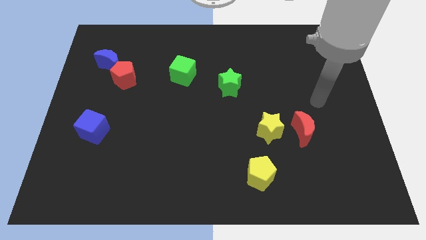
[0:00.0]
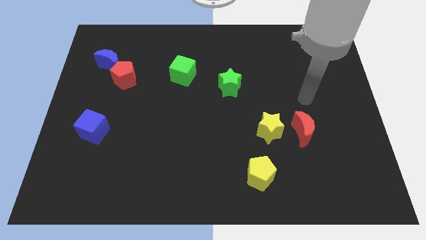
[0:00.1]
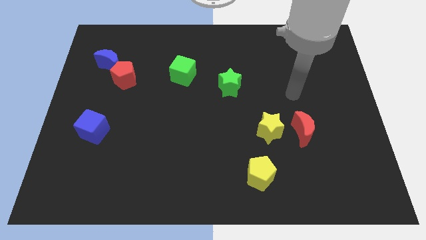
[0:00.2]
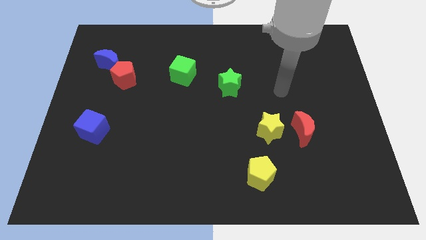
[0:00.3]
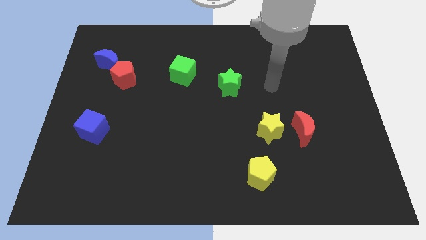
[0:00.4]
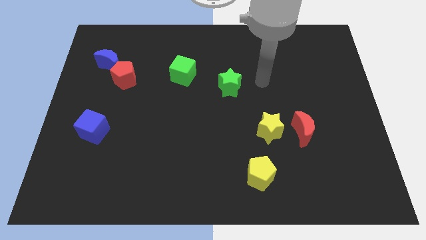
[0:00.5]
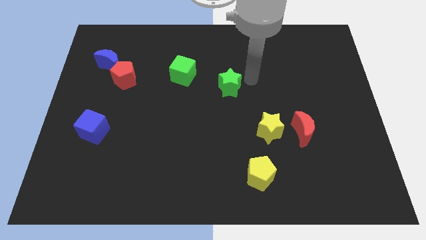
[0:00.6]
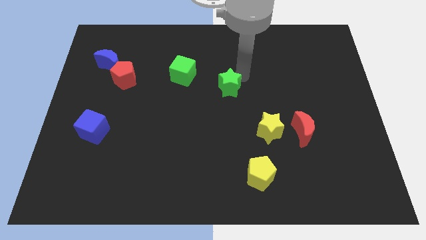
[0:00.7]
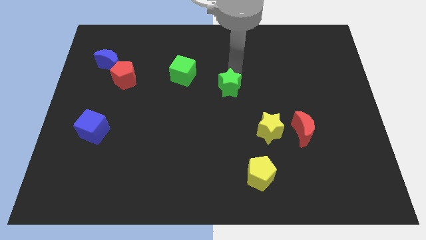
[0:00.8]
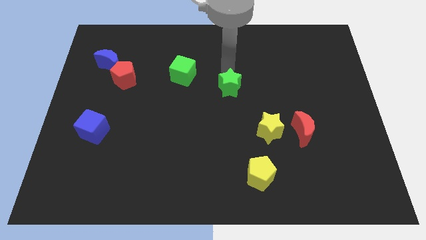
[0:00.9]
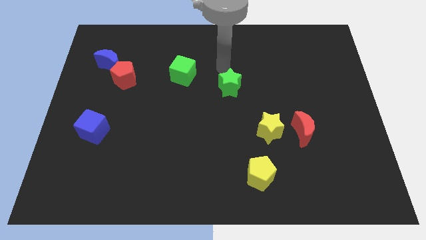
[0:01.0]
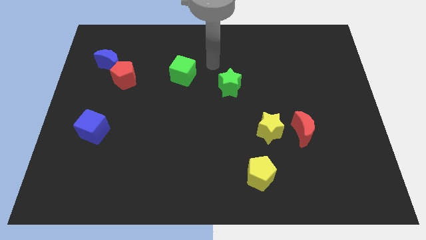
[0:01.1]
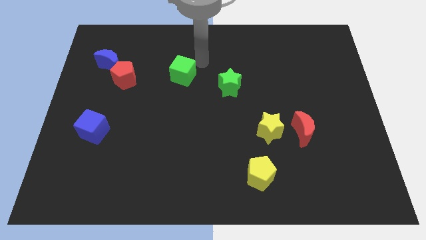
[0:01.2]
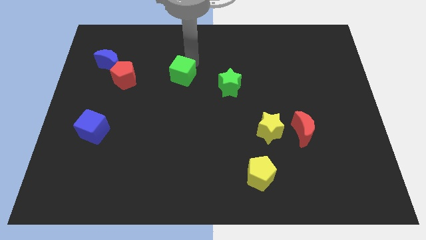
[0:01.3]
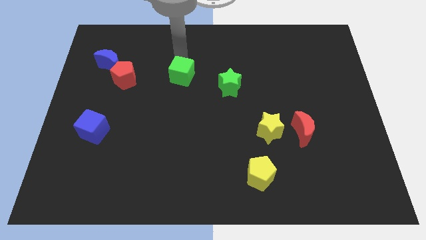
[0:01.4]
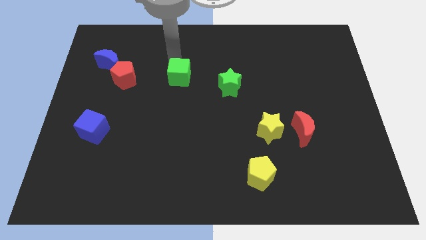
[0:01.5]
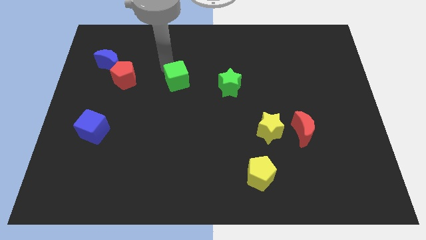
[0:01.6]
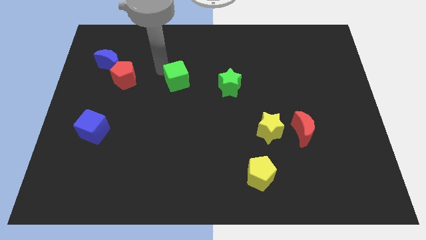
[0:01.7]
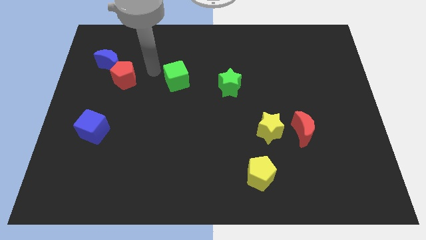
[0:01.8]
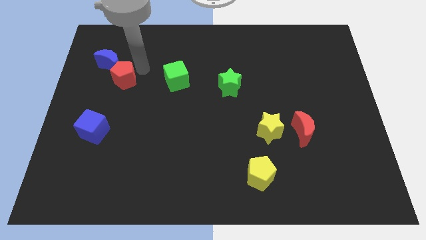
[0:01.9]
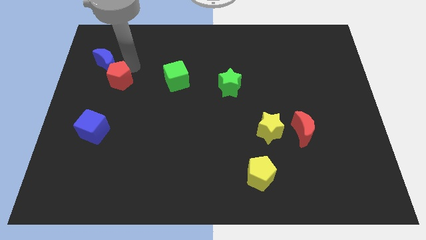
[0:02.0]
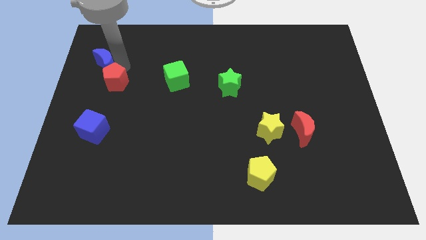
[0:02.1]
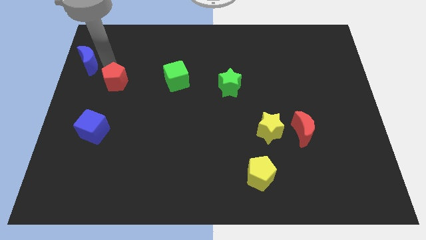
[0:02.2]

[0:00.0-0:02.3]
pull the red pentagon apart from the blue moon

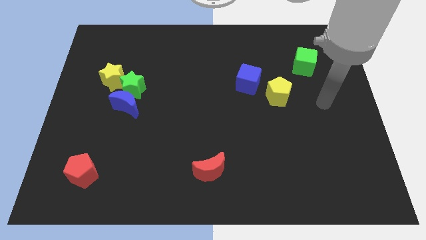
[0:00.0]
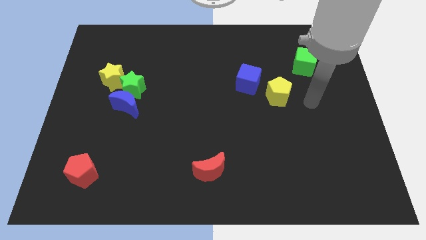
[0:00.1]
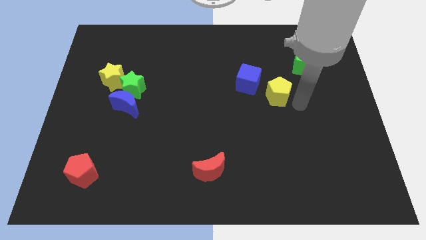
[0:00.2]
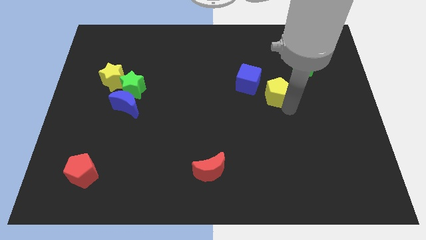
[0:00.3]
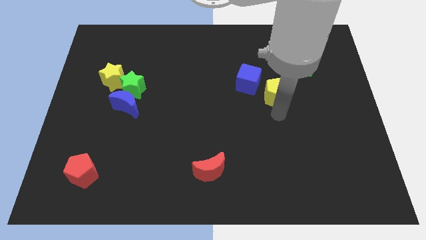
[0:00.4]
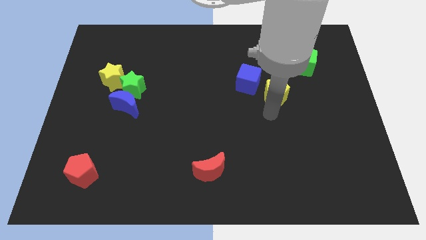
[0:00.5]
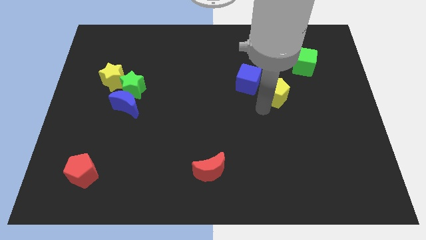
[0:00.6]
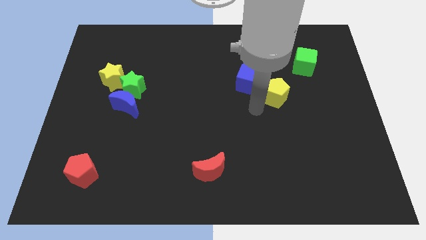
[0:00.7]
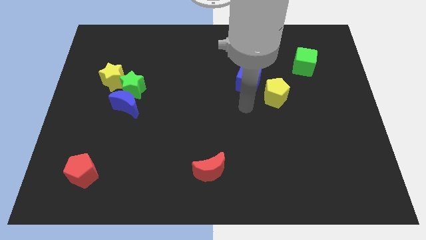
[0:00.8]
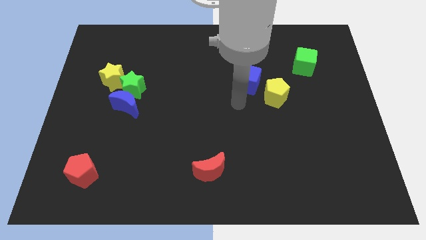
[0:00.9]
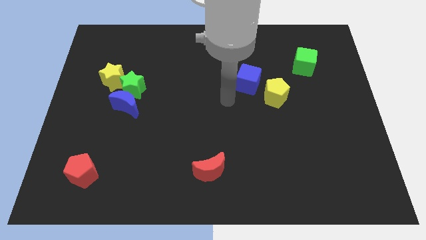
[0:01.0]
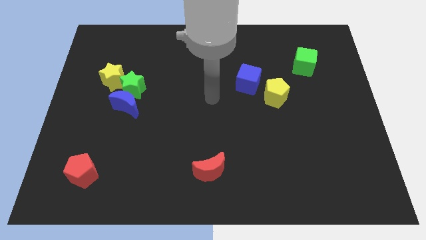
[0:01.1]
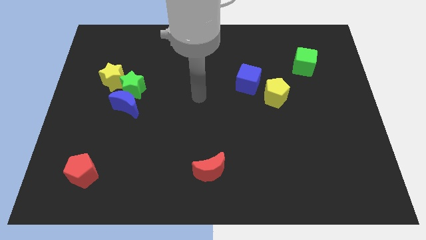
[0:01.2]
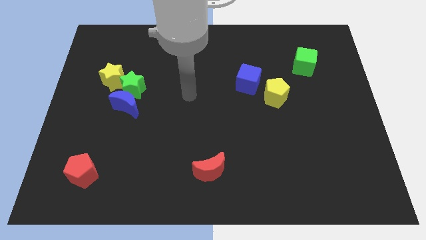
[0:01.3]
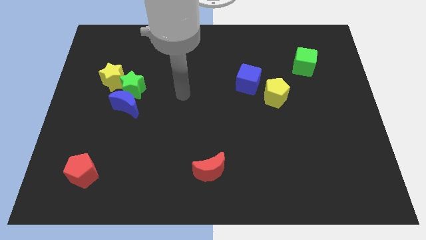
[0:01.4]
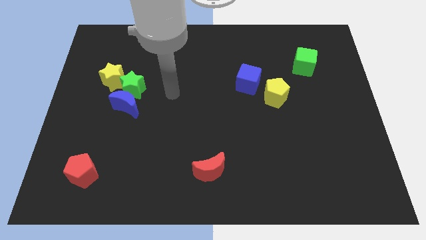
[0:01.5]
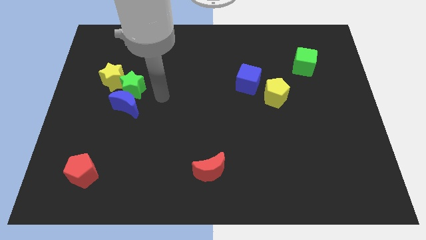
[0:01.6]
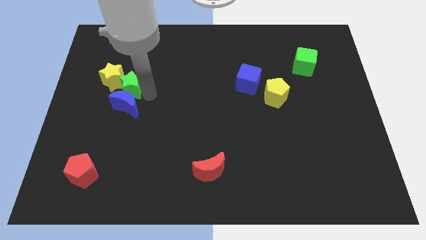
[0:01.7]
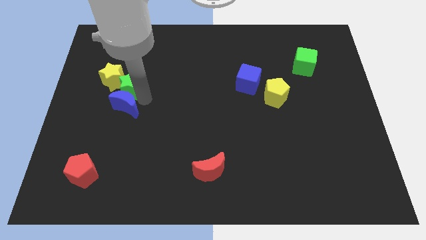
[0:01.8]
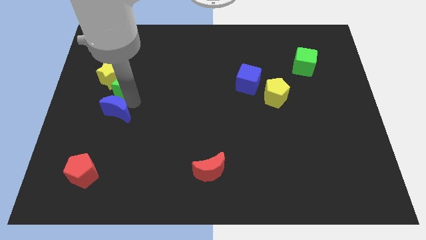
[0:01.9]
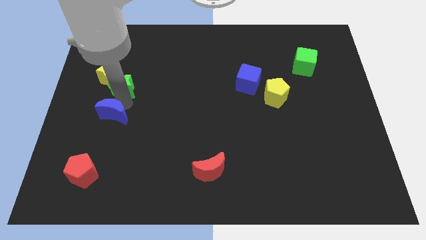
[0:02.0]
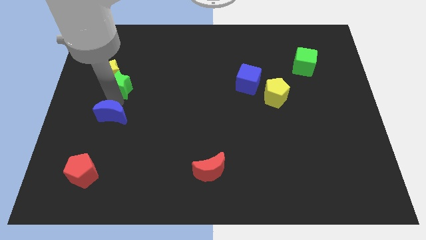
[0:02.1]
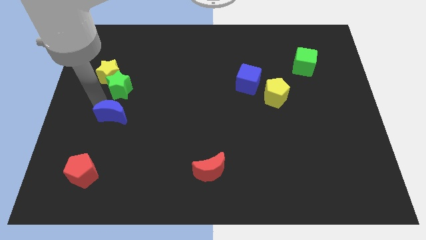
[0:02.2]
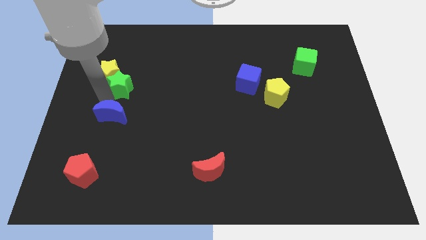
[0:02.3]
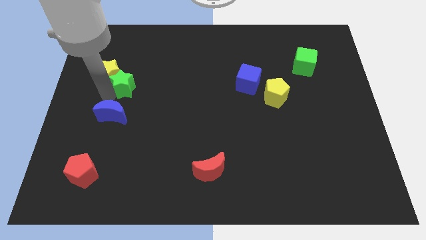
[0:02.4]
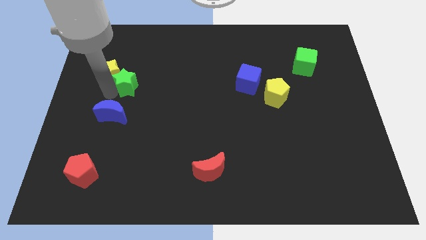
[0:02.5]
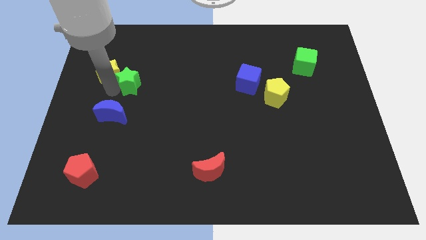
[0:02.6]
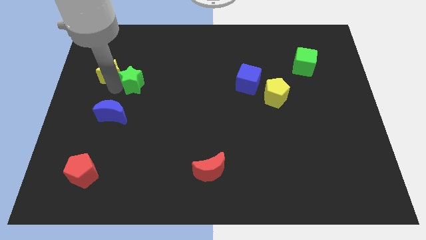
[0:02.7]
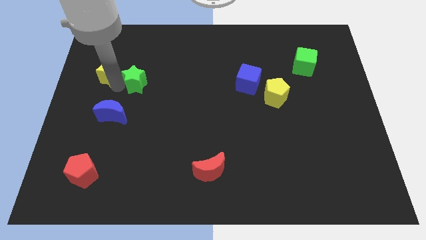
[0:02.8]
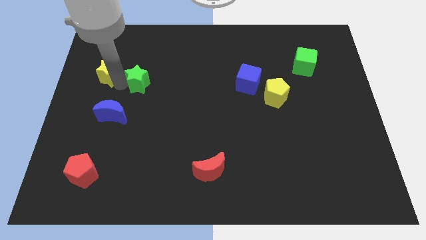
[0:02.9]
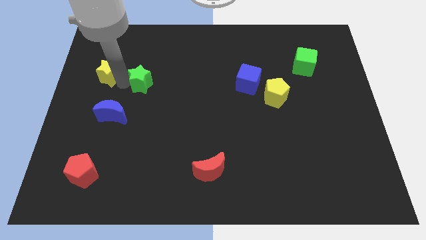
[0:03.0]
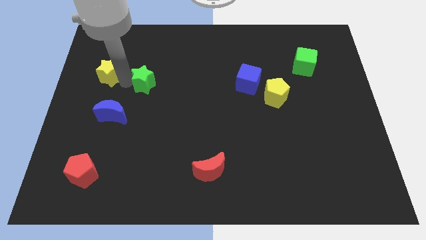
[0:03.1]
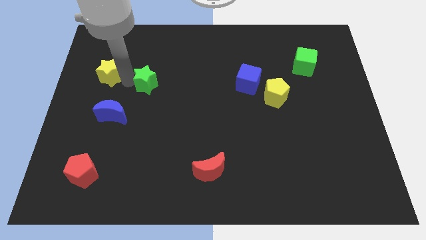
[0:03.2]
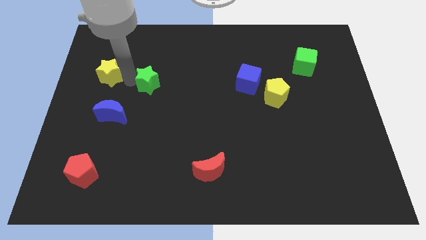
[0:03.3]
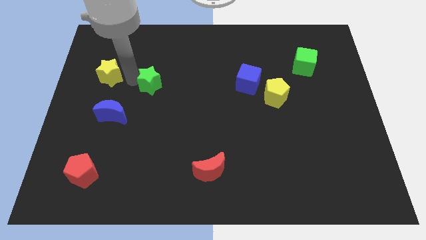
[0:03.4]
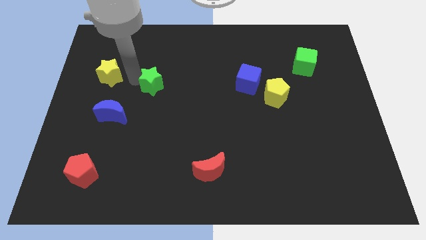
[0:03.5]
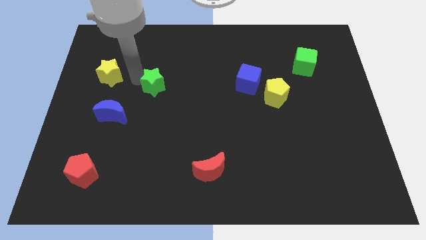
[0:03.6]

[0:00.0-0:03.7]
move the green star away from the blue moon and yellow star

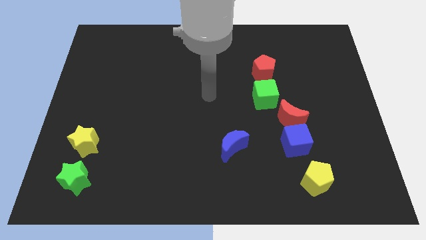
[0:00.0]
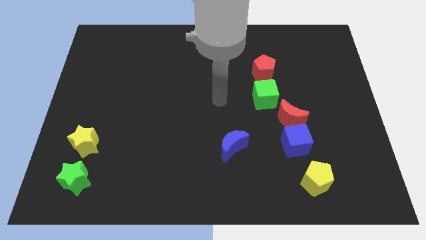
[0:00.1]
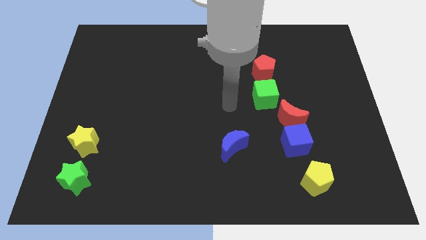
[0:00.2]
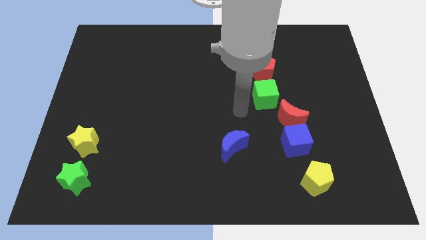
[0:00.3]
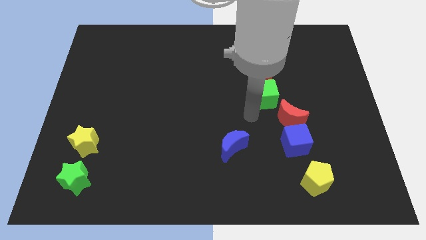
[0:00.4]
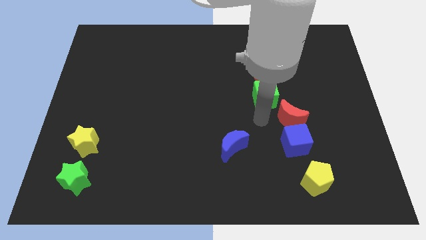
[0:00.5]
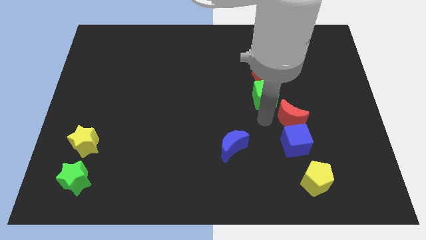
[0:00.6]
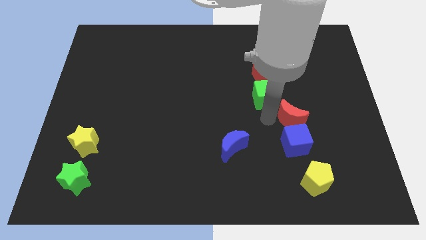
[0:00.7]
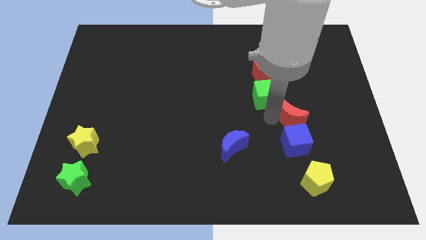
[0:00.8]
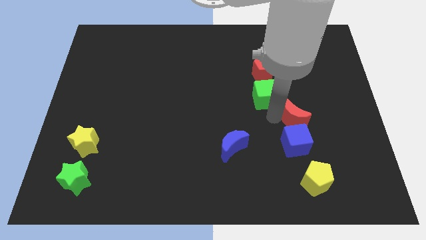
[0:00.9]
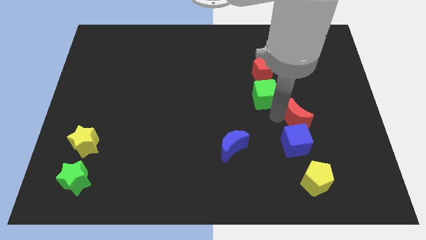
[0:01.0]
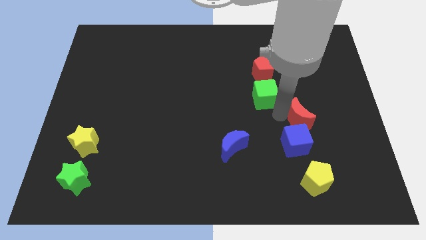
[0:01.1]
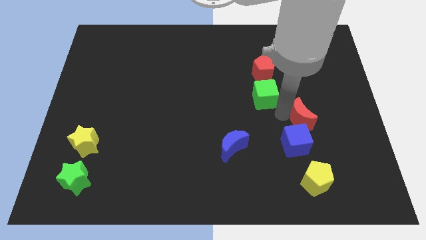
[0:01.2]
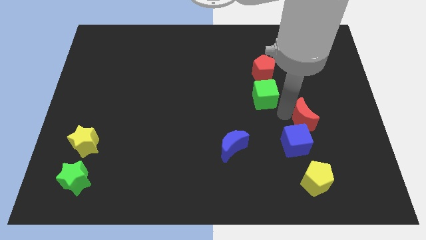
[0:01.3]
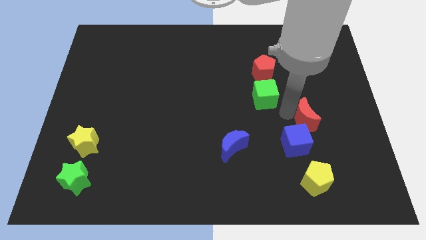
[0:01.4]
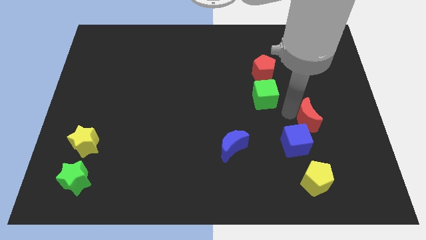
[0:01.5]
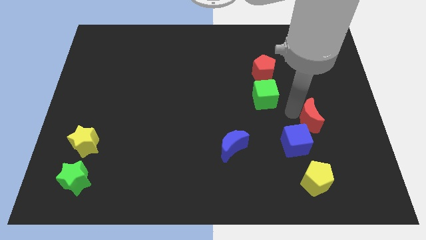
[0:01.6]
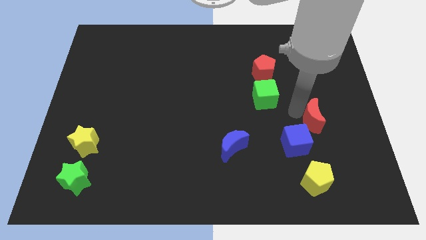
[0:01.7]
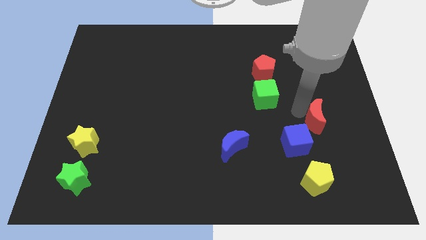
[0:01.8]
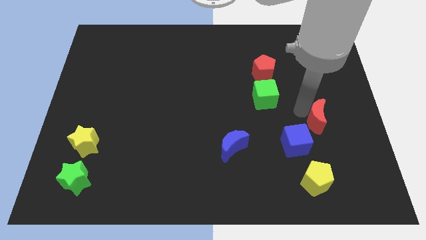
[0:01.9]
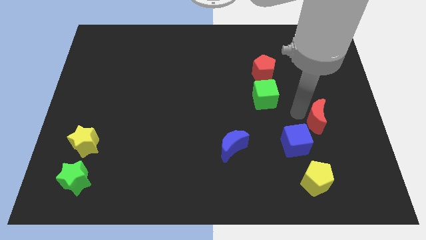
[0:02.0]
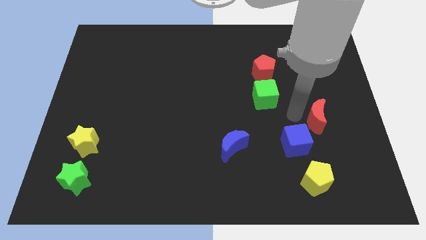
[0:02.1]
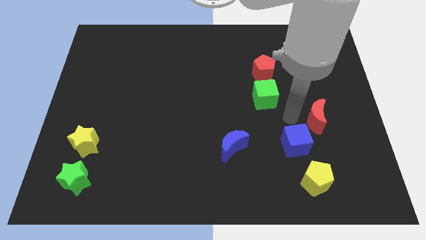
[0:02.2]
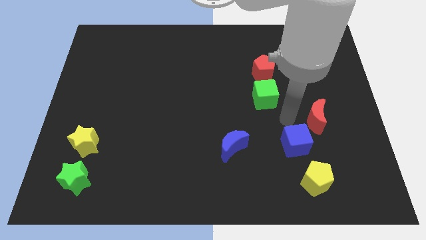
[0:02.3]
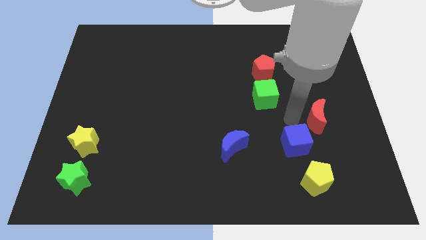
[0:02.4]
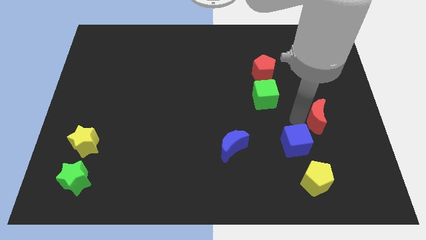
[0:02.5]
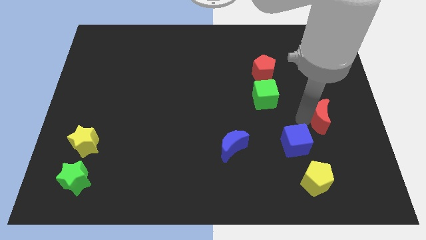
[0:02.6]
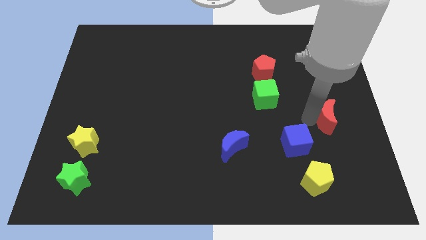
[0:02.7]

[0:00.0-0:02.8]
pull the red moon apart from the blue cube and green cube

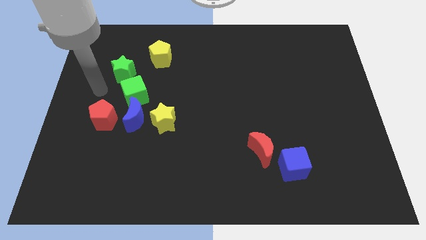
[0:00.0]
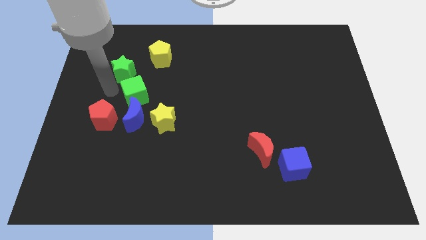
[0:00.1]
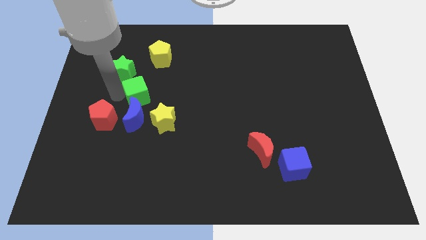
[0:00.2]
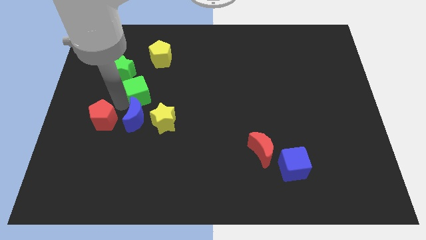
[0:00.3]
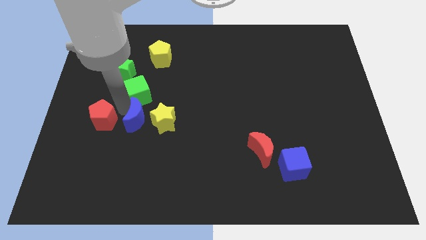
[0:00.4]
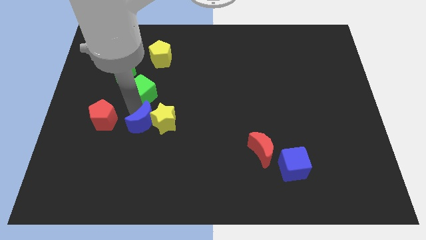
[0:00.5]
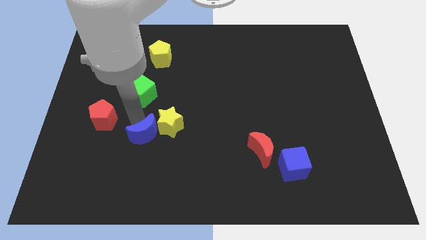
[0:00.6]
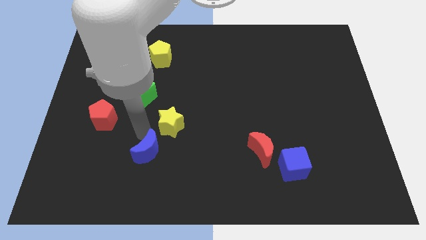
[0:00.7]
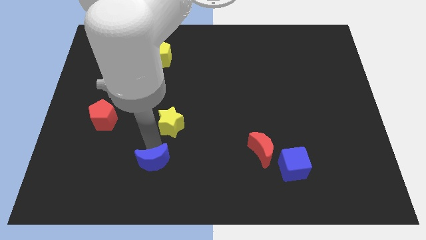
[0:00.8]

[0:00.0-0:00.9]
separate the yellow star from the blue moon
